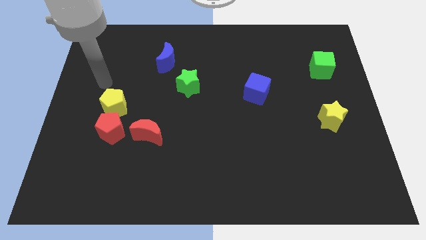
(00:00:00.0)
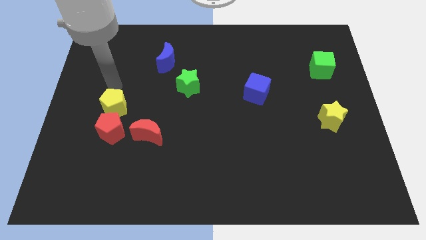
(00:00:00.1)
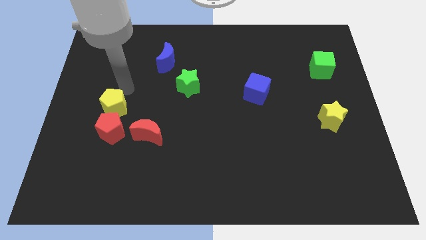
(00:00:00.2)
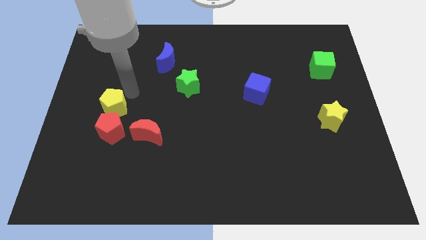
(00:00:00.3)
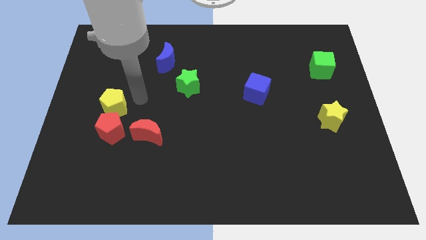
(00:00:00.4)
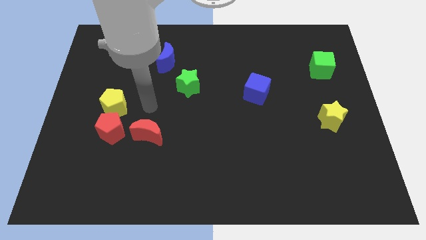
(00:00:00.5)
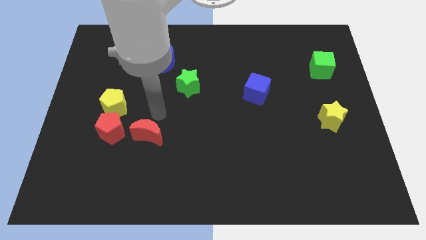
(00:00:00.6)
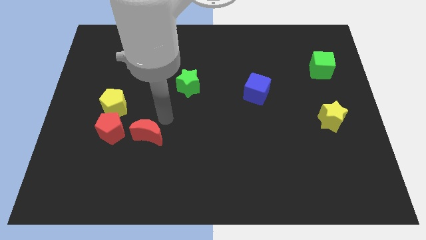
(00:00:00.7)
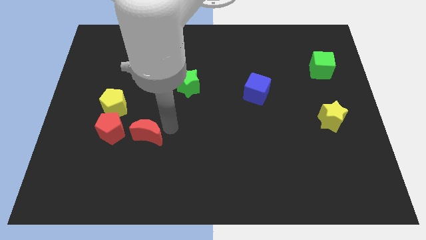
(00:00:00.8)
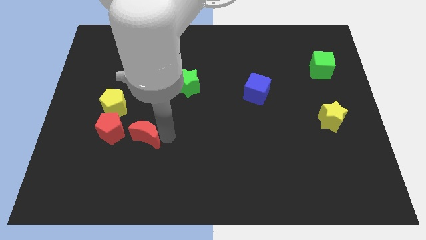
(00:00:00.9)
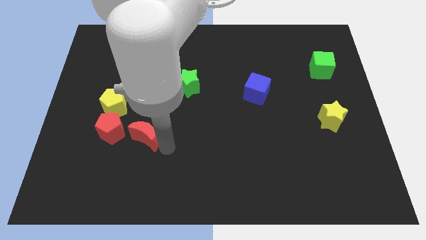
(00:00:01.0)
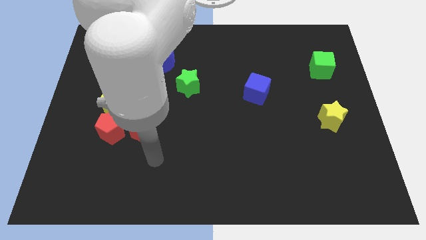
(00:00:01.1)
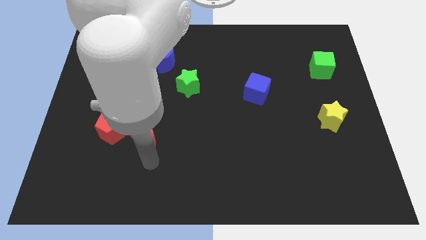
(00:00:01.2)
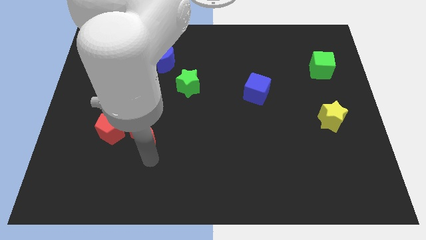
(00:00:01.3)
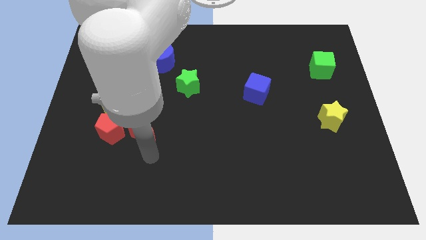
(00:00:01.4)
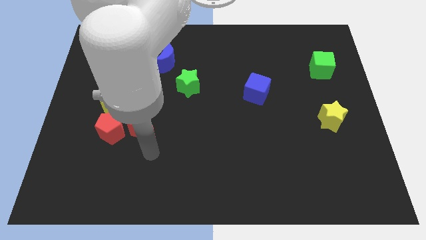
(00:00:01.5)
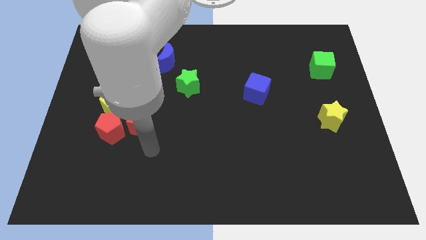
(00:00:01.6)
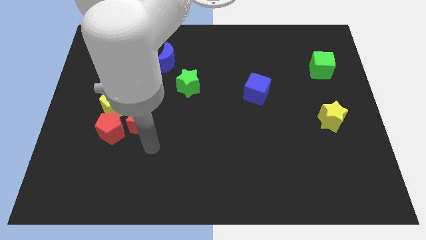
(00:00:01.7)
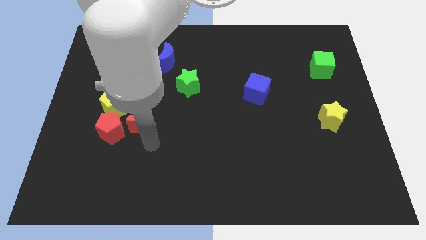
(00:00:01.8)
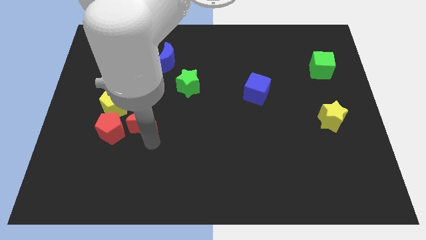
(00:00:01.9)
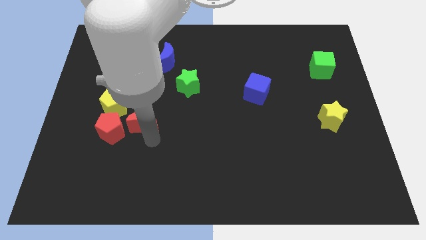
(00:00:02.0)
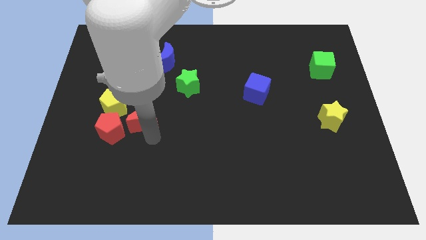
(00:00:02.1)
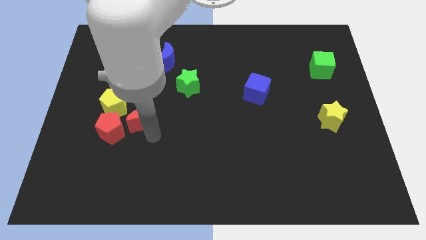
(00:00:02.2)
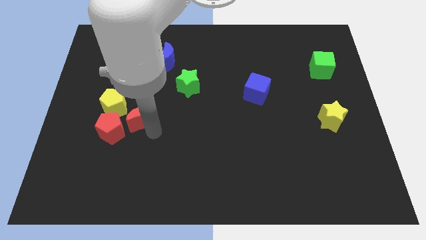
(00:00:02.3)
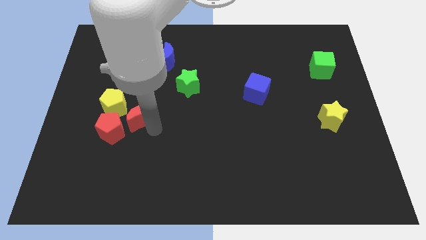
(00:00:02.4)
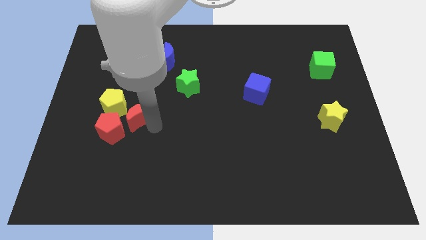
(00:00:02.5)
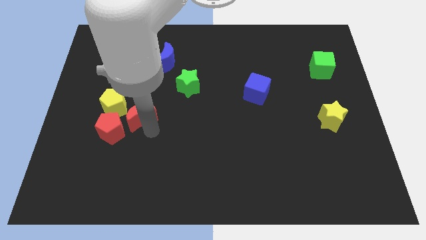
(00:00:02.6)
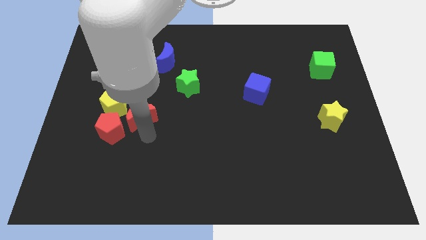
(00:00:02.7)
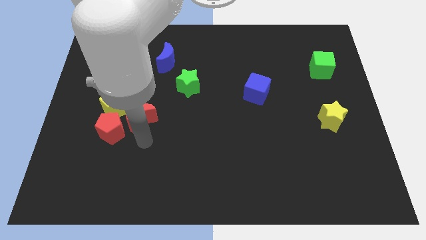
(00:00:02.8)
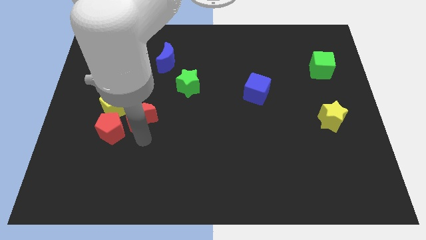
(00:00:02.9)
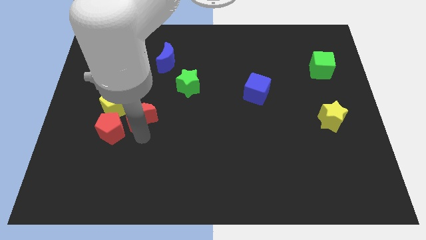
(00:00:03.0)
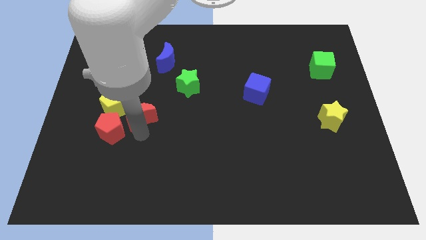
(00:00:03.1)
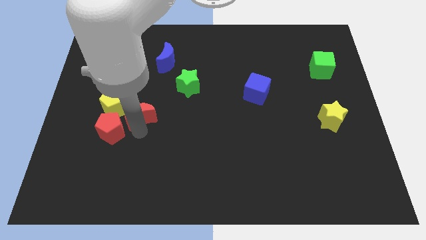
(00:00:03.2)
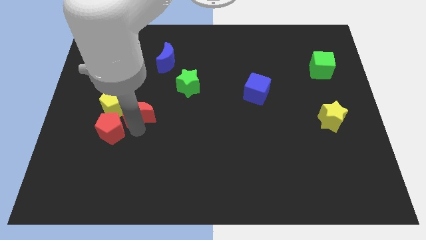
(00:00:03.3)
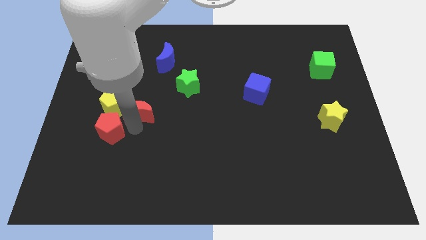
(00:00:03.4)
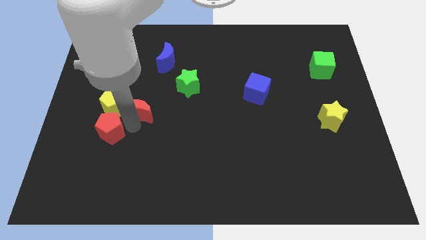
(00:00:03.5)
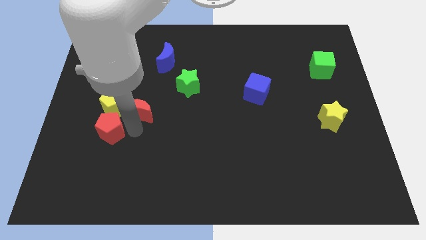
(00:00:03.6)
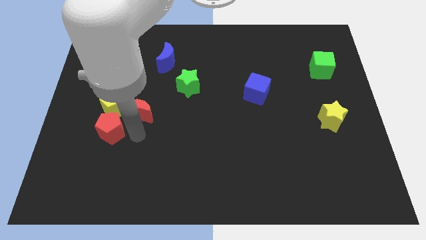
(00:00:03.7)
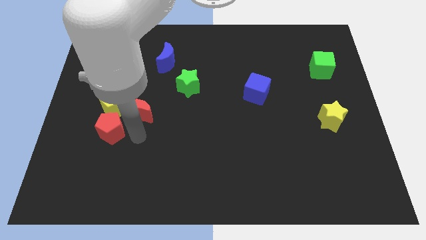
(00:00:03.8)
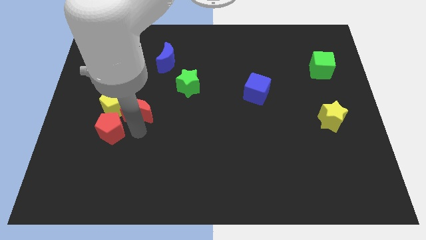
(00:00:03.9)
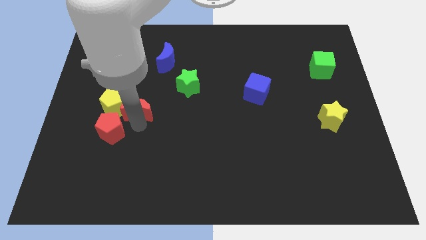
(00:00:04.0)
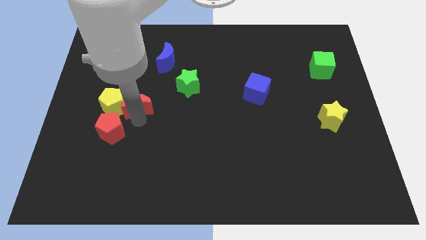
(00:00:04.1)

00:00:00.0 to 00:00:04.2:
slightly push the red moon diagonally up and to the left

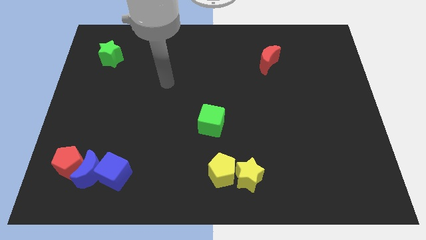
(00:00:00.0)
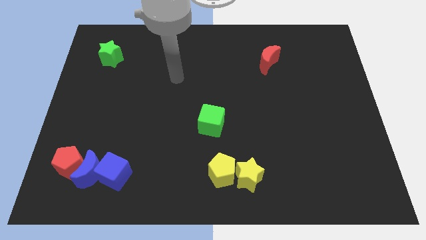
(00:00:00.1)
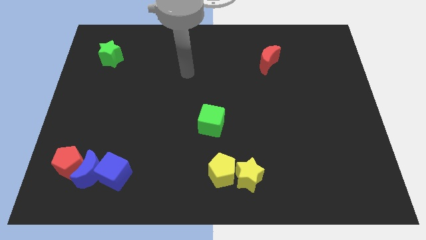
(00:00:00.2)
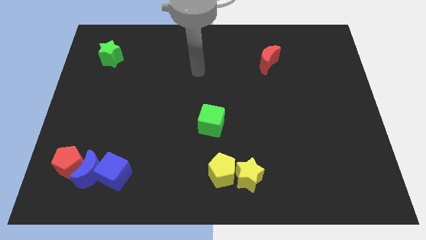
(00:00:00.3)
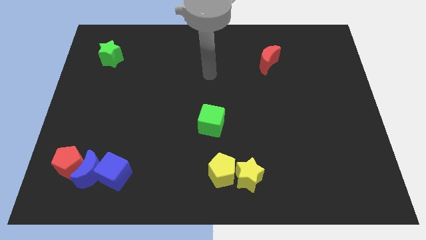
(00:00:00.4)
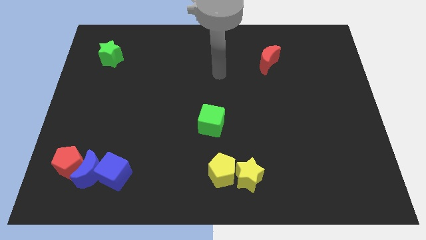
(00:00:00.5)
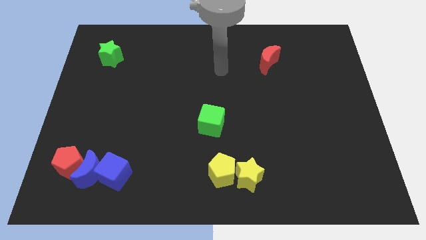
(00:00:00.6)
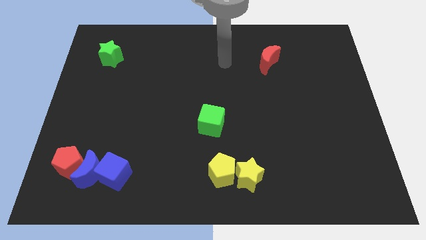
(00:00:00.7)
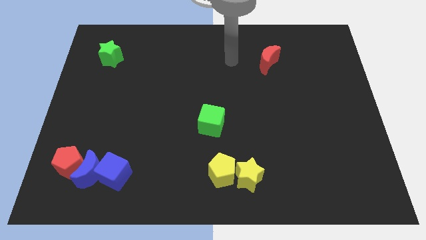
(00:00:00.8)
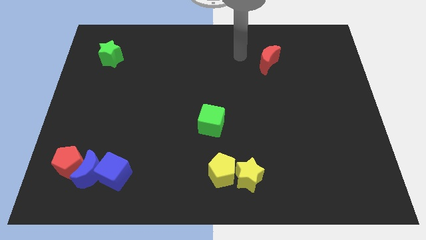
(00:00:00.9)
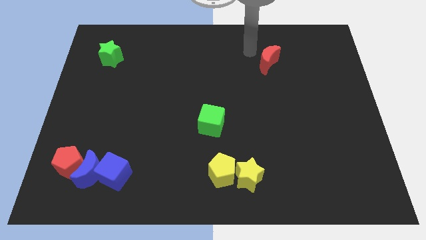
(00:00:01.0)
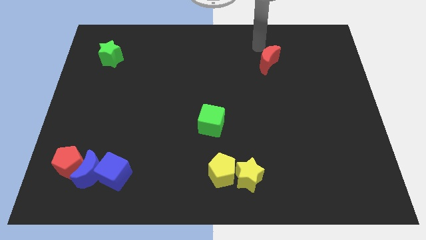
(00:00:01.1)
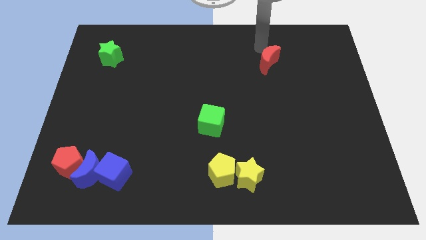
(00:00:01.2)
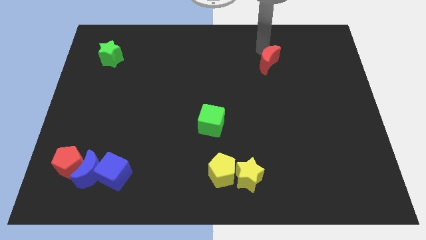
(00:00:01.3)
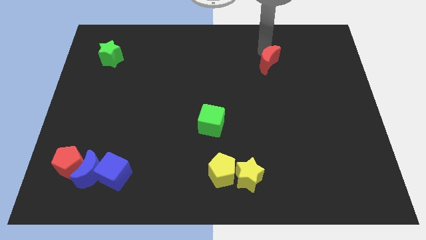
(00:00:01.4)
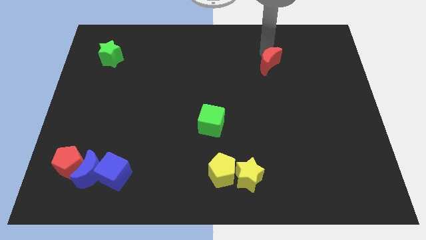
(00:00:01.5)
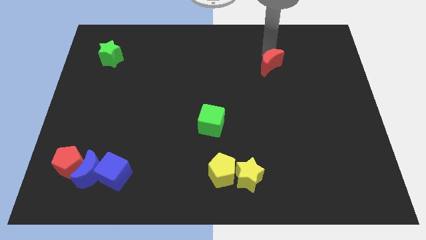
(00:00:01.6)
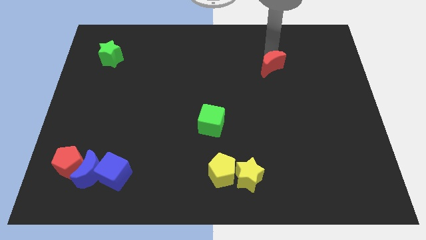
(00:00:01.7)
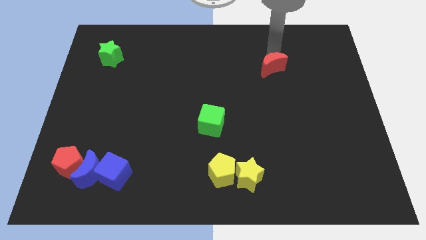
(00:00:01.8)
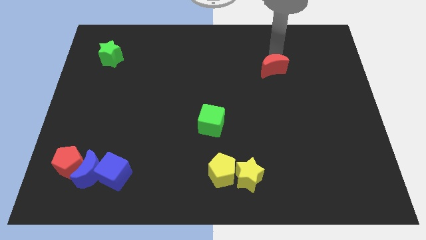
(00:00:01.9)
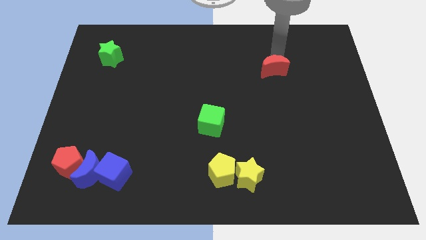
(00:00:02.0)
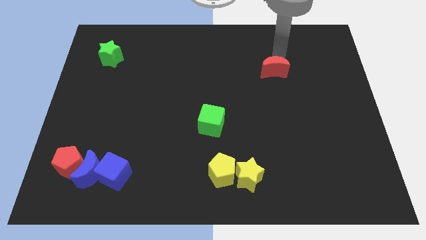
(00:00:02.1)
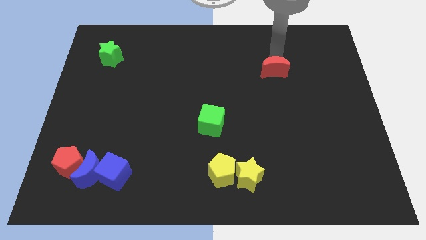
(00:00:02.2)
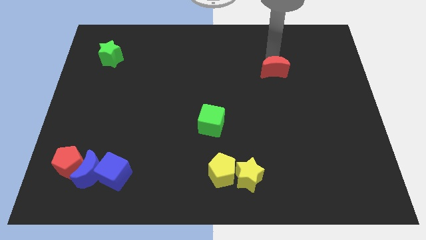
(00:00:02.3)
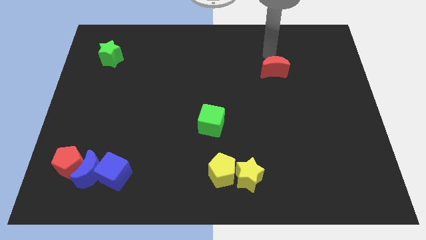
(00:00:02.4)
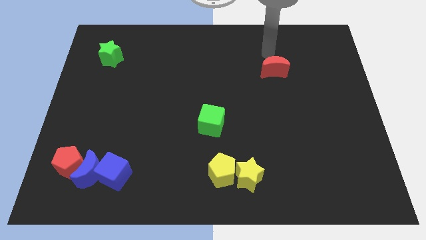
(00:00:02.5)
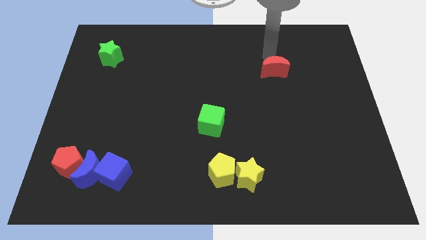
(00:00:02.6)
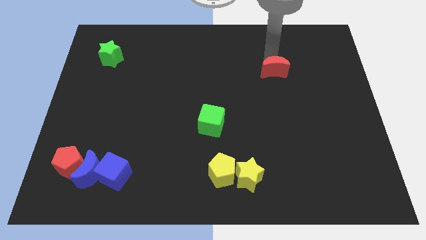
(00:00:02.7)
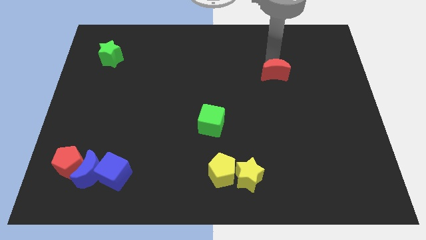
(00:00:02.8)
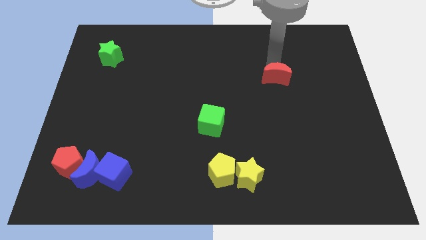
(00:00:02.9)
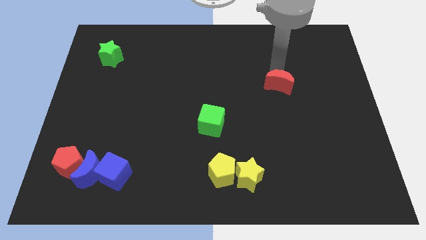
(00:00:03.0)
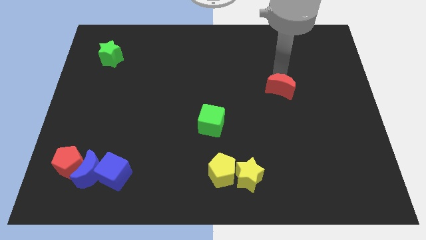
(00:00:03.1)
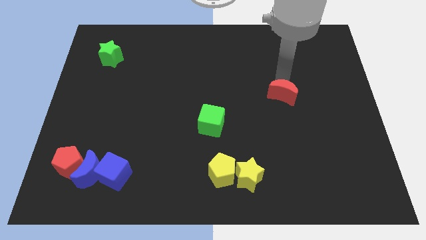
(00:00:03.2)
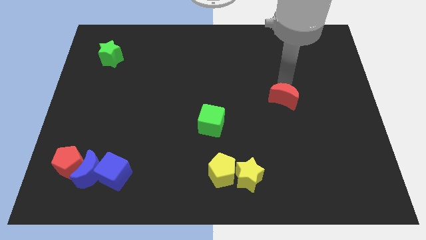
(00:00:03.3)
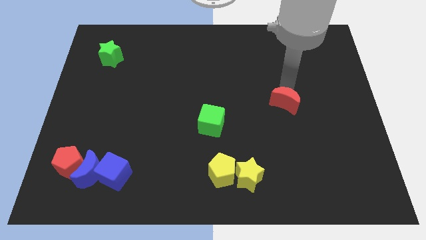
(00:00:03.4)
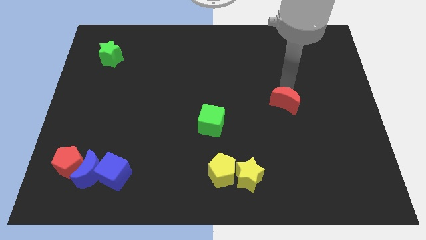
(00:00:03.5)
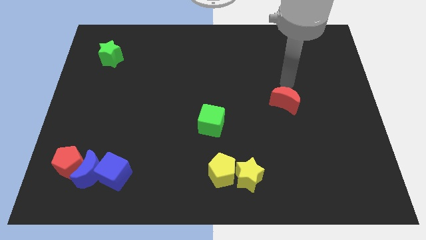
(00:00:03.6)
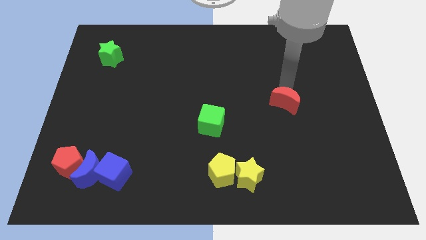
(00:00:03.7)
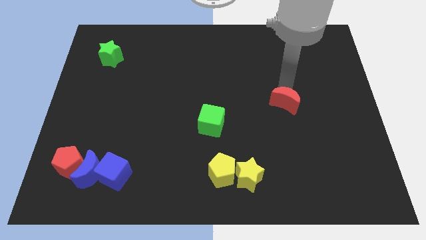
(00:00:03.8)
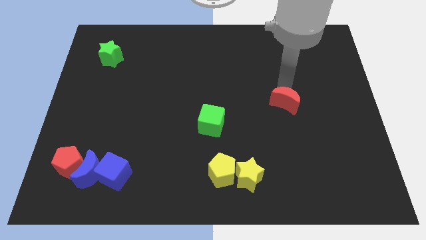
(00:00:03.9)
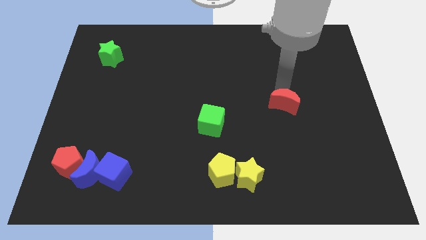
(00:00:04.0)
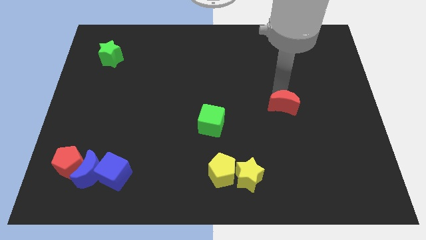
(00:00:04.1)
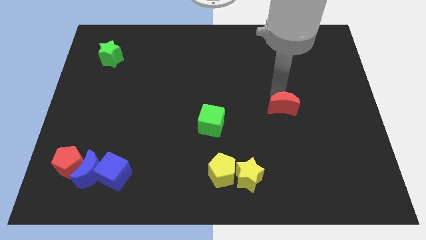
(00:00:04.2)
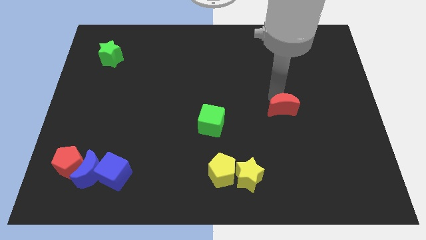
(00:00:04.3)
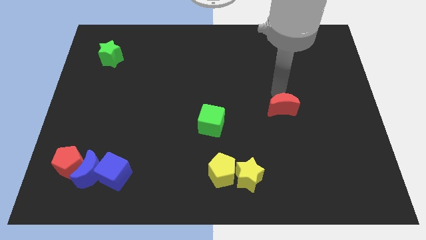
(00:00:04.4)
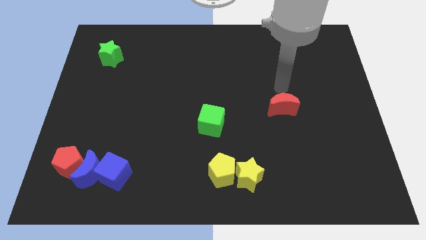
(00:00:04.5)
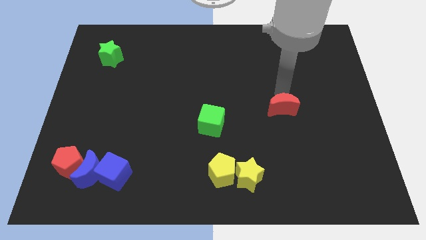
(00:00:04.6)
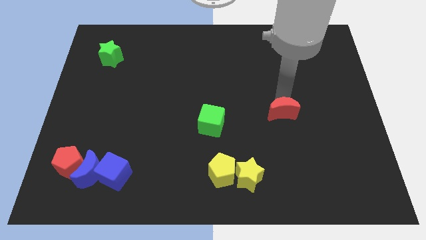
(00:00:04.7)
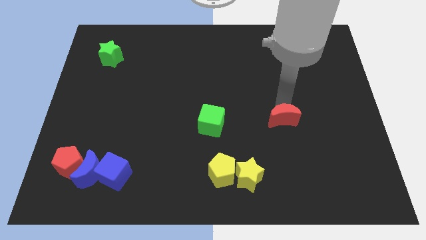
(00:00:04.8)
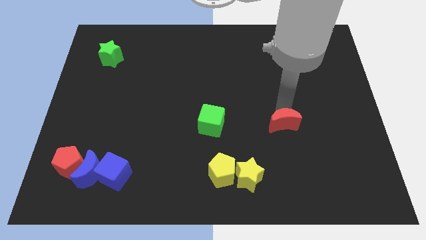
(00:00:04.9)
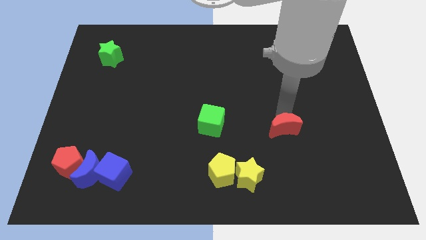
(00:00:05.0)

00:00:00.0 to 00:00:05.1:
slide the red moon downwards
